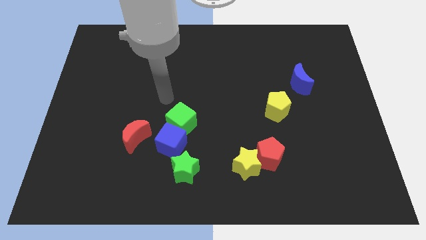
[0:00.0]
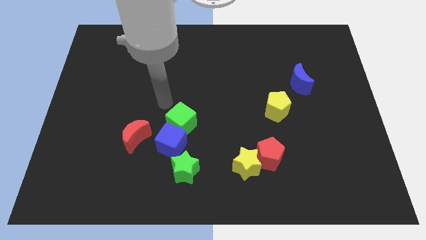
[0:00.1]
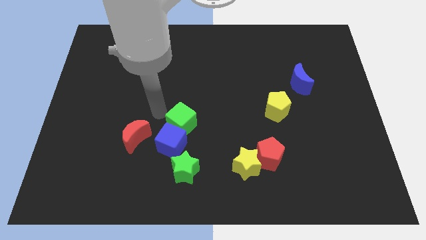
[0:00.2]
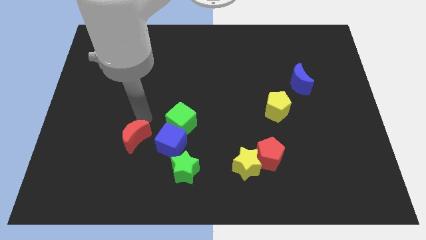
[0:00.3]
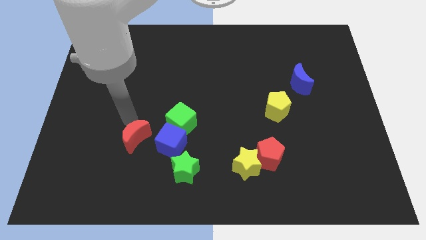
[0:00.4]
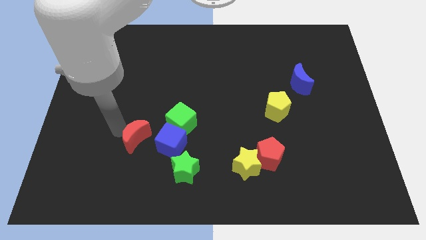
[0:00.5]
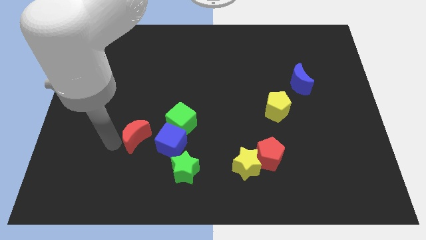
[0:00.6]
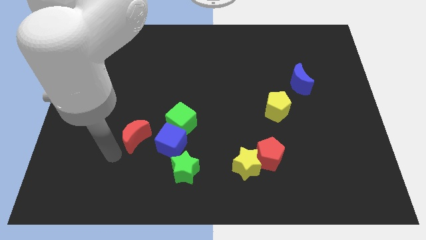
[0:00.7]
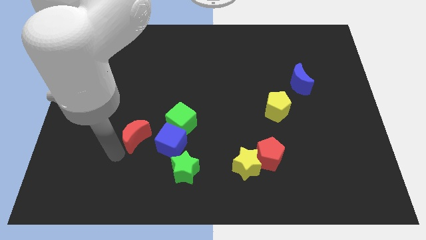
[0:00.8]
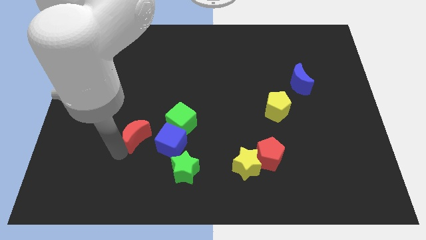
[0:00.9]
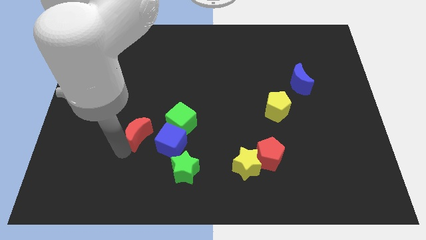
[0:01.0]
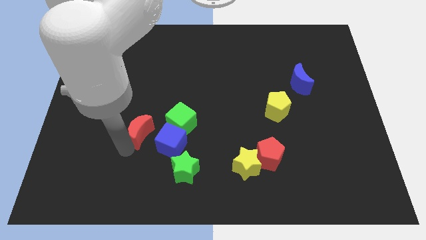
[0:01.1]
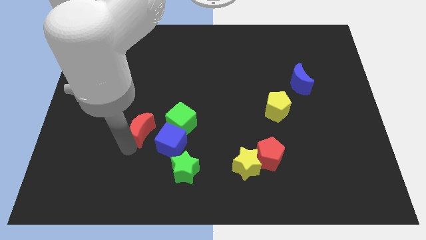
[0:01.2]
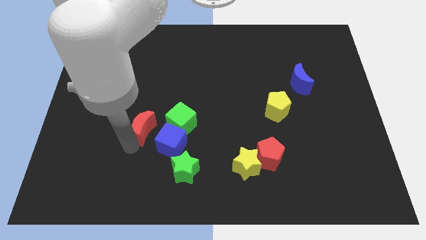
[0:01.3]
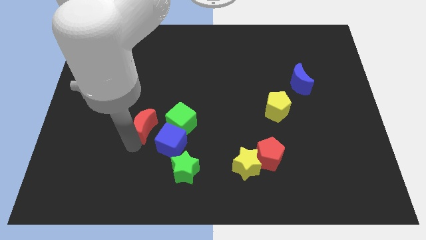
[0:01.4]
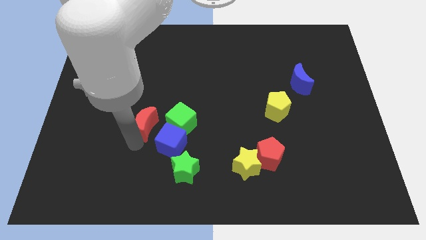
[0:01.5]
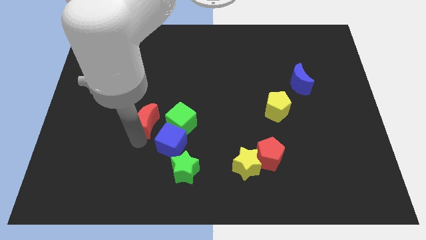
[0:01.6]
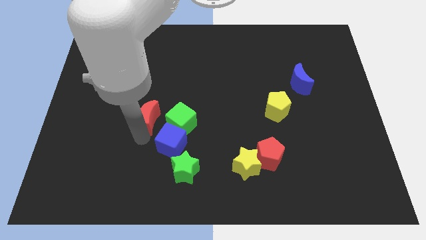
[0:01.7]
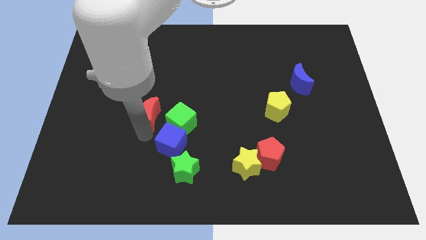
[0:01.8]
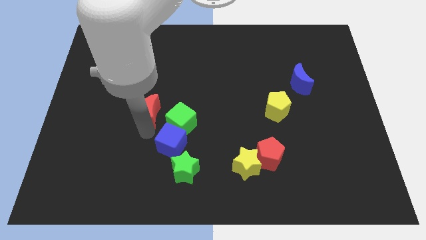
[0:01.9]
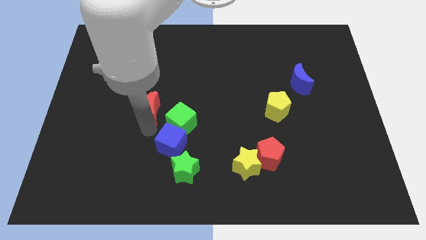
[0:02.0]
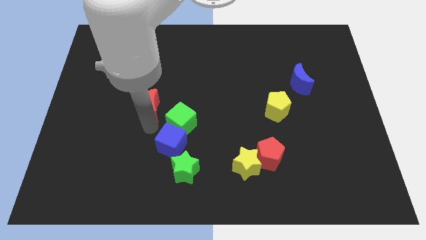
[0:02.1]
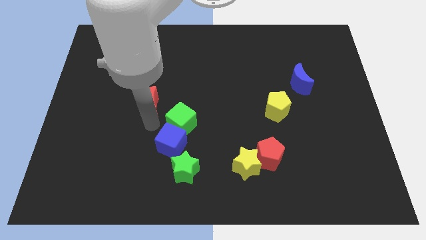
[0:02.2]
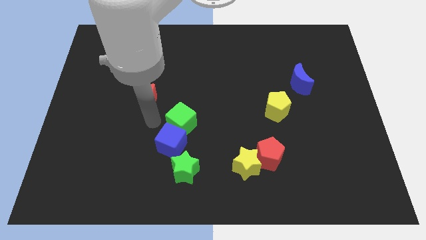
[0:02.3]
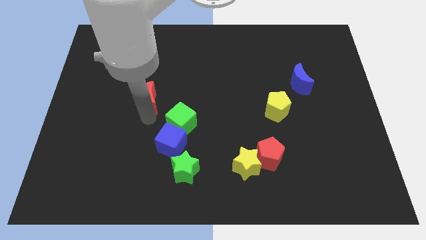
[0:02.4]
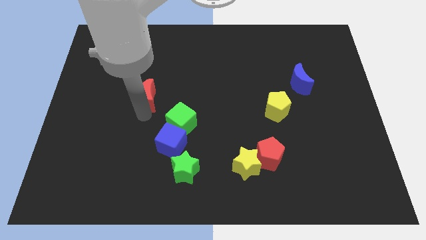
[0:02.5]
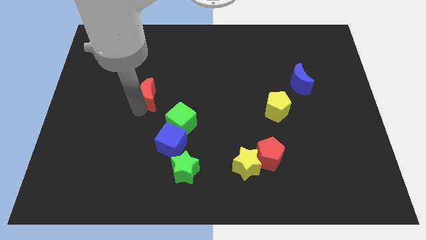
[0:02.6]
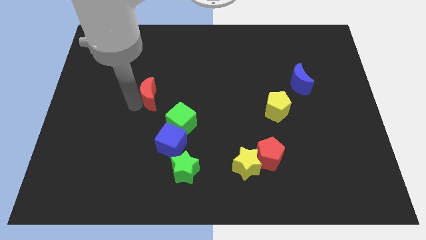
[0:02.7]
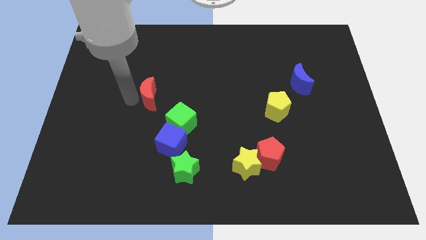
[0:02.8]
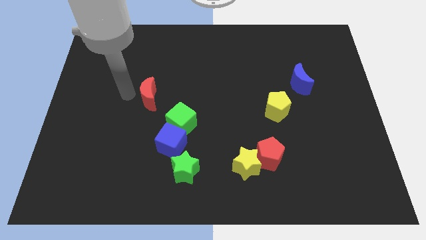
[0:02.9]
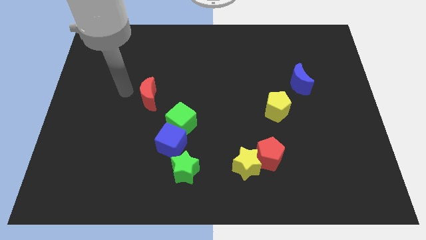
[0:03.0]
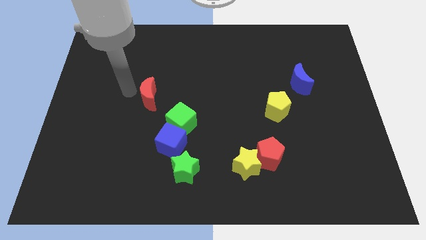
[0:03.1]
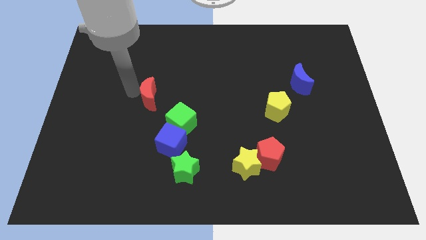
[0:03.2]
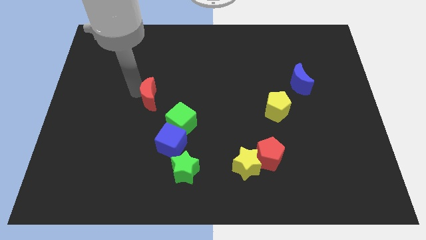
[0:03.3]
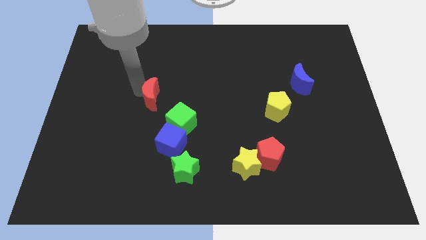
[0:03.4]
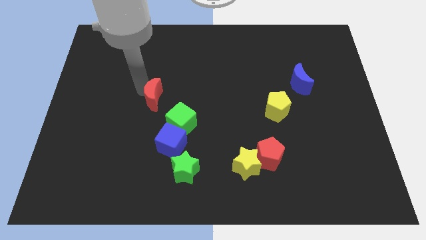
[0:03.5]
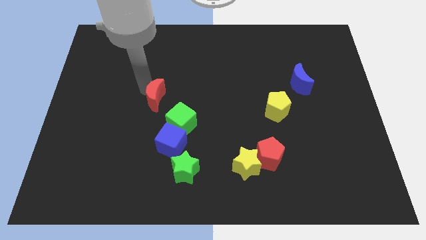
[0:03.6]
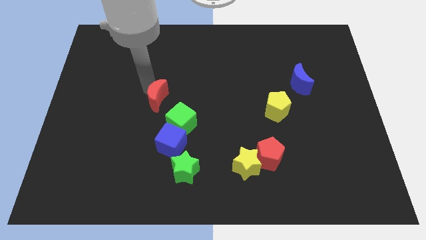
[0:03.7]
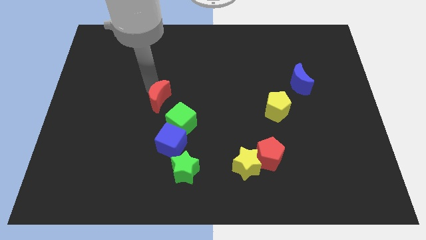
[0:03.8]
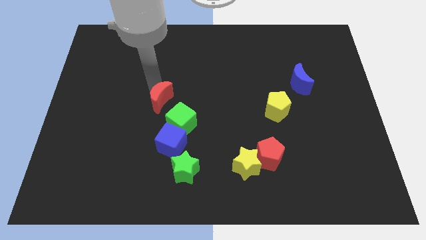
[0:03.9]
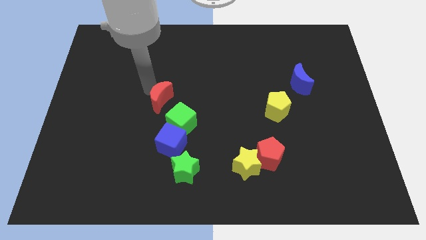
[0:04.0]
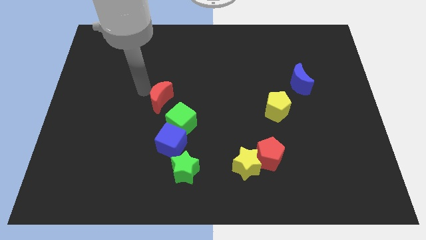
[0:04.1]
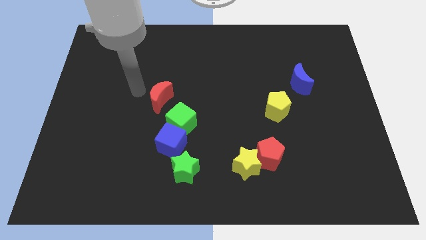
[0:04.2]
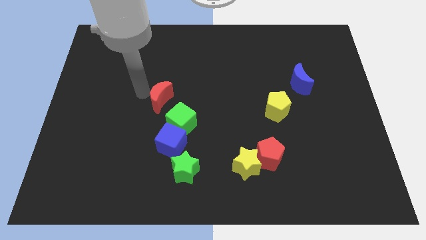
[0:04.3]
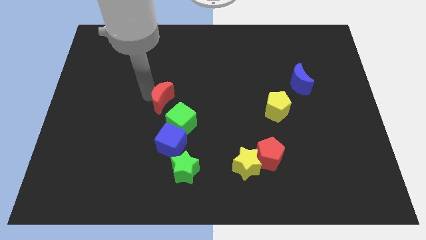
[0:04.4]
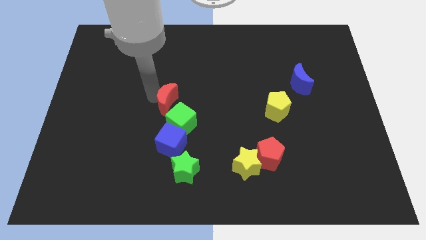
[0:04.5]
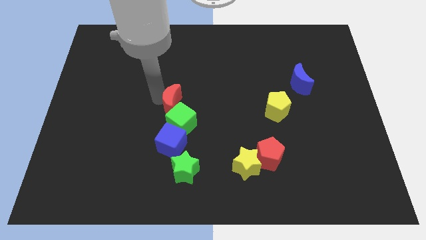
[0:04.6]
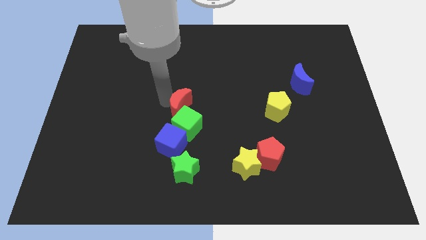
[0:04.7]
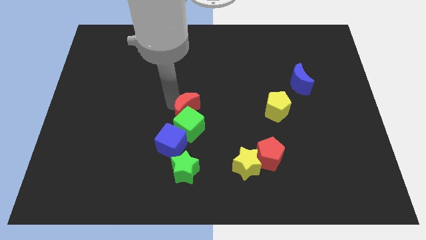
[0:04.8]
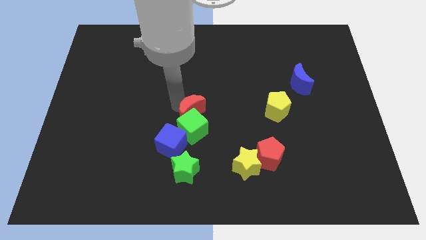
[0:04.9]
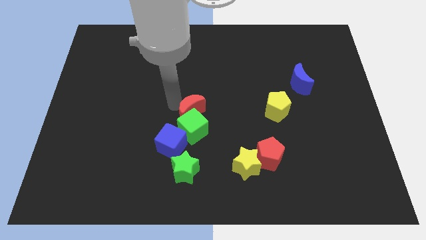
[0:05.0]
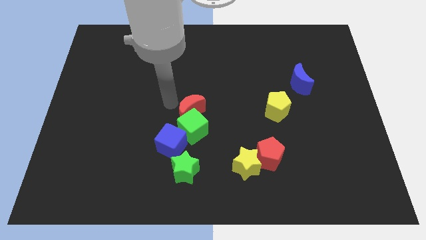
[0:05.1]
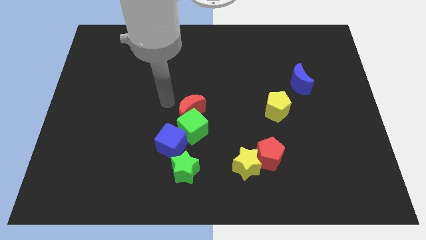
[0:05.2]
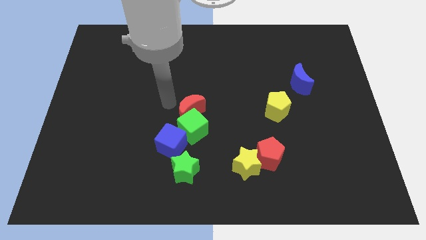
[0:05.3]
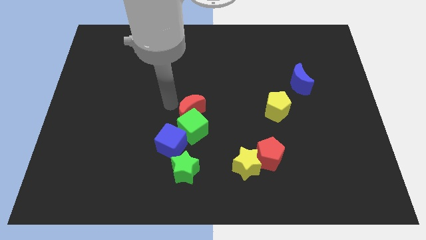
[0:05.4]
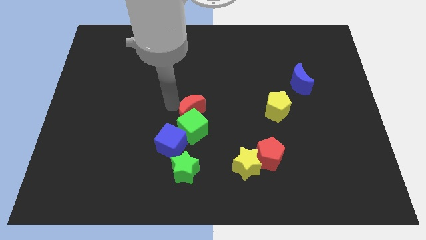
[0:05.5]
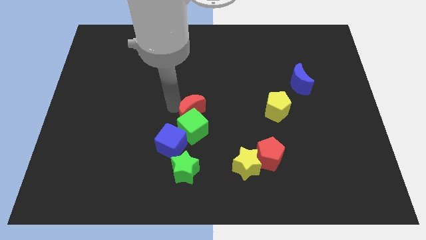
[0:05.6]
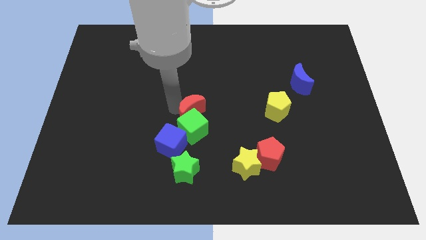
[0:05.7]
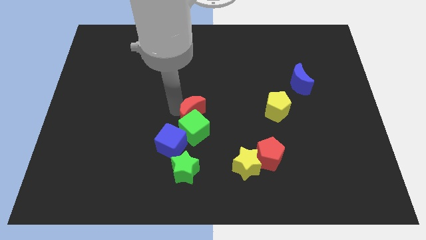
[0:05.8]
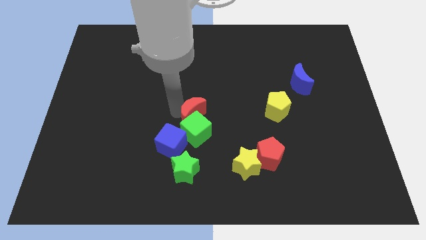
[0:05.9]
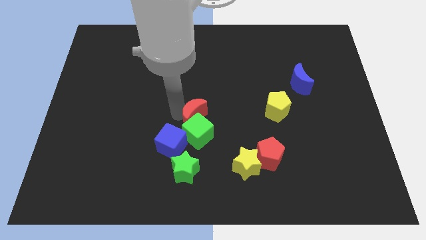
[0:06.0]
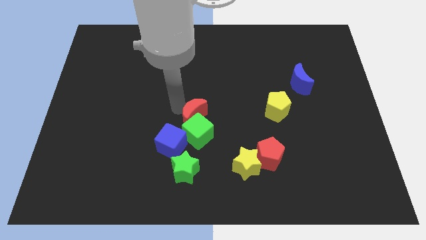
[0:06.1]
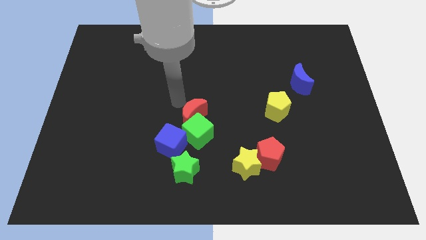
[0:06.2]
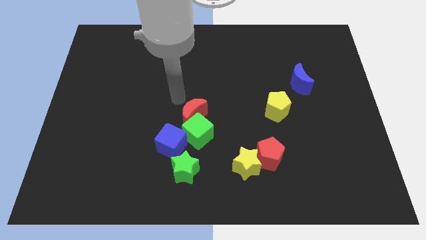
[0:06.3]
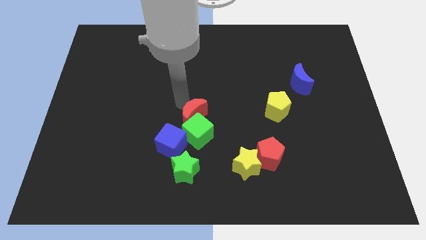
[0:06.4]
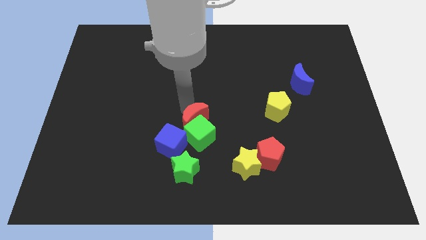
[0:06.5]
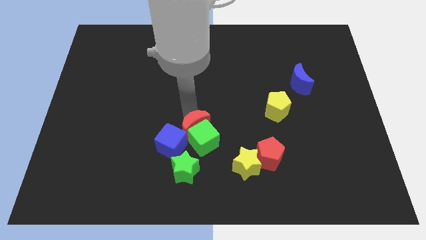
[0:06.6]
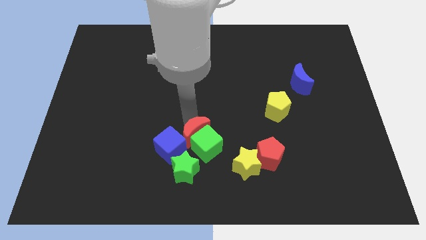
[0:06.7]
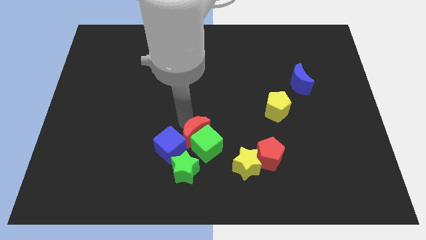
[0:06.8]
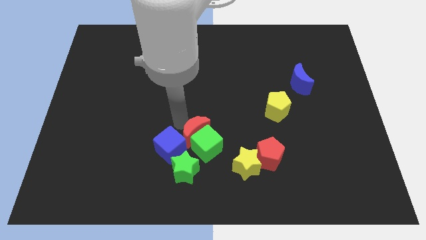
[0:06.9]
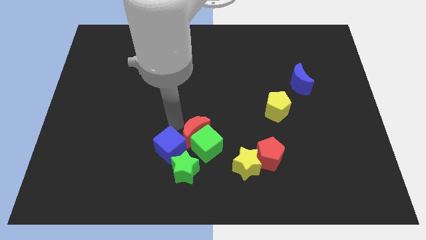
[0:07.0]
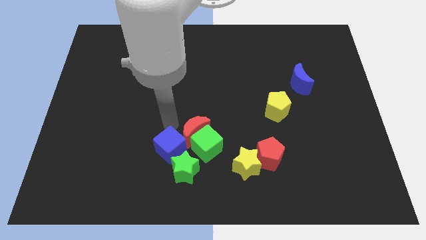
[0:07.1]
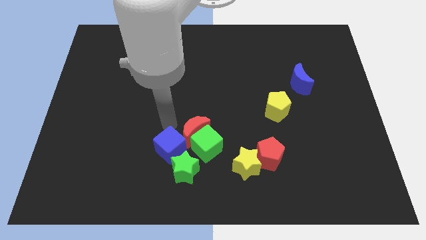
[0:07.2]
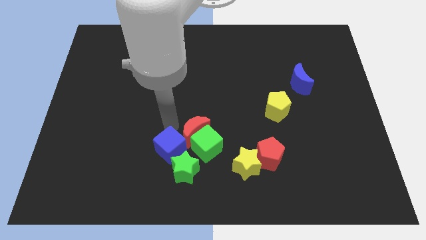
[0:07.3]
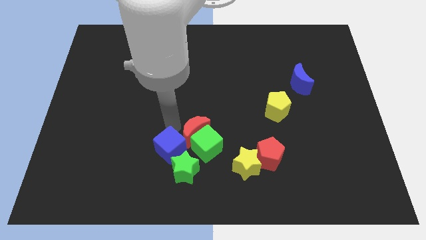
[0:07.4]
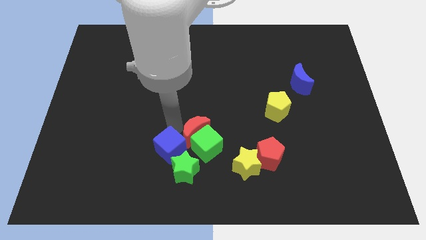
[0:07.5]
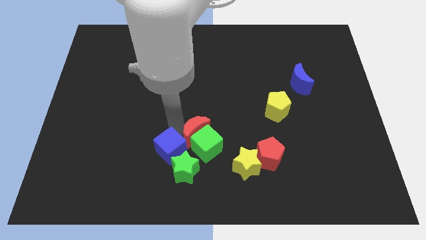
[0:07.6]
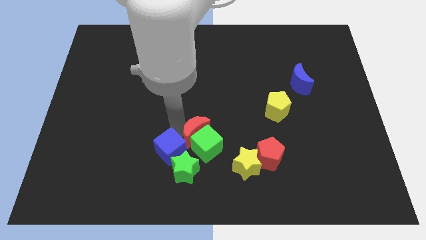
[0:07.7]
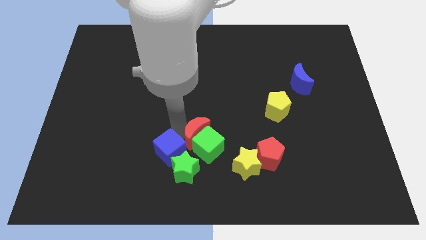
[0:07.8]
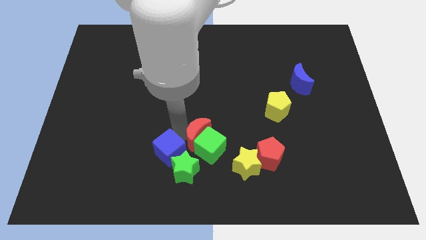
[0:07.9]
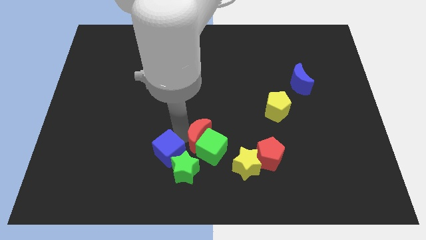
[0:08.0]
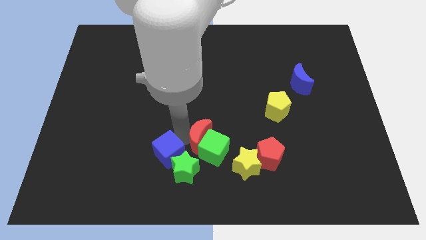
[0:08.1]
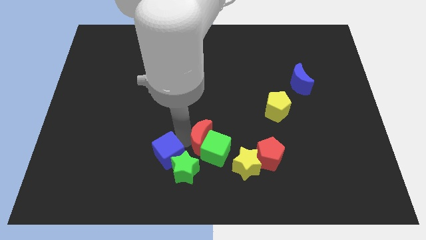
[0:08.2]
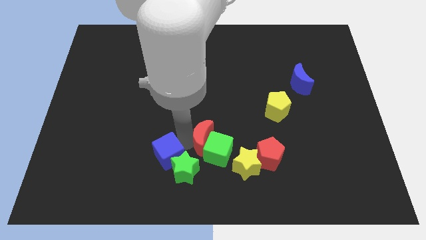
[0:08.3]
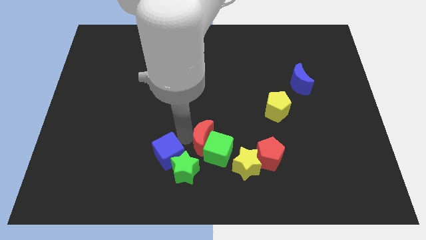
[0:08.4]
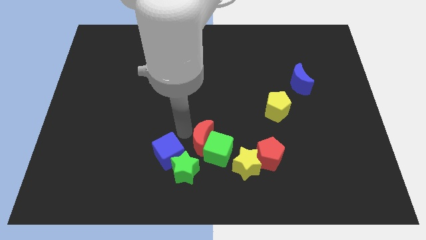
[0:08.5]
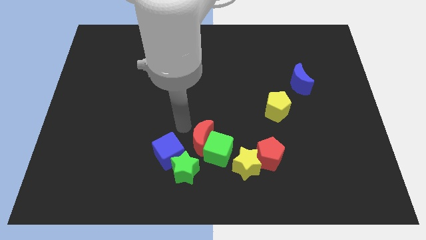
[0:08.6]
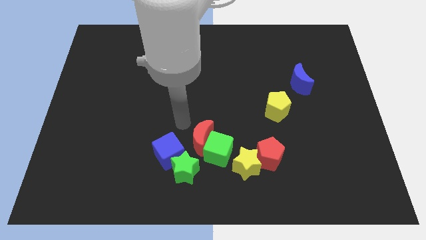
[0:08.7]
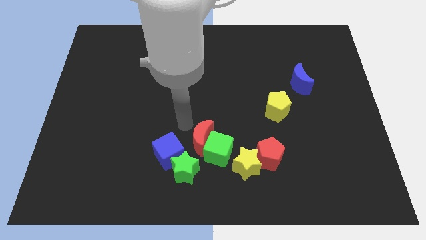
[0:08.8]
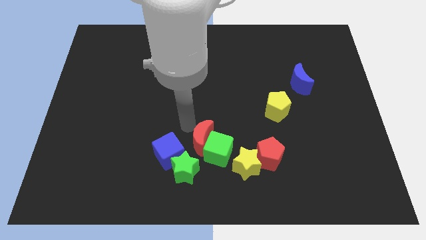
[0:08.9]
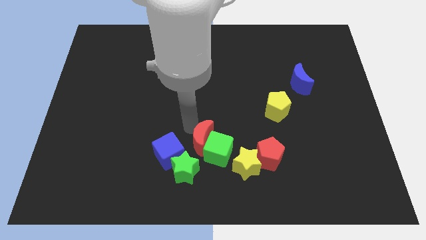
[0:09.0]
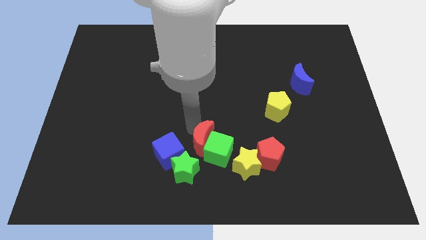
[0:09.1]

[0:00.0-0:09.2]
slide the red moon to the left of the red pentagon
